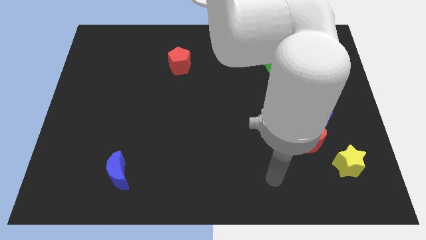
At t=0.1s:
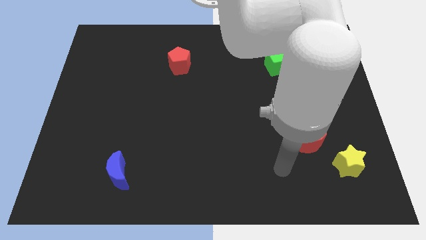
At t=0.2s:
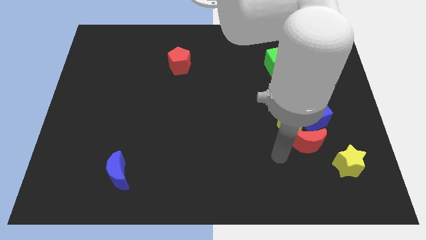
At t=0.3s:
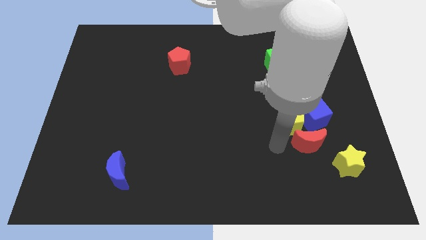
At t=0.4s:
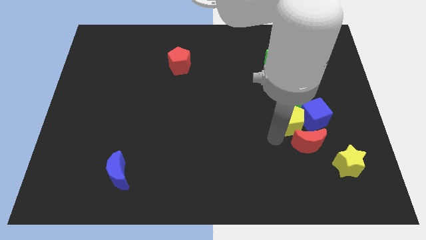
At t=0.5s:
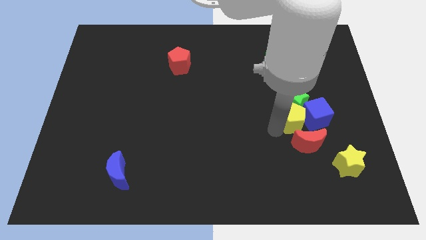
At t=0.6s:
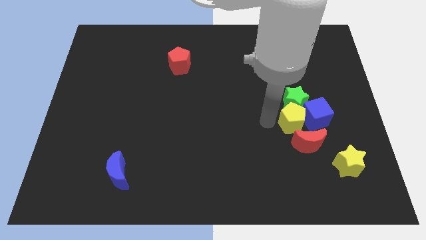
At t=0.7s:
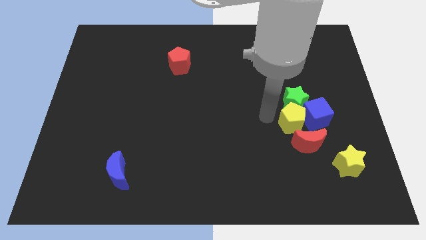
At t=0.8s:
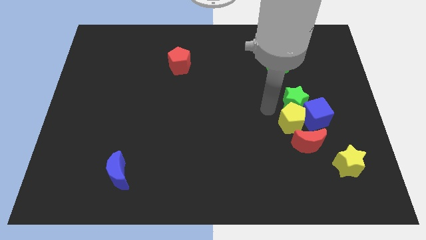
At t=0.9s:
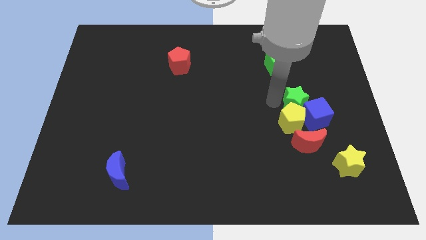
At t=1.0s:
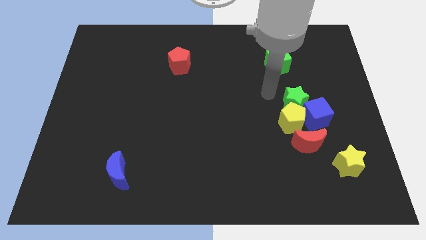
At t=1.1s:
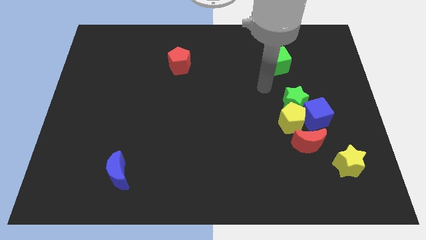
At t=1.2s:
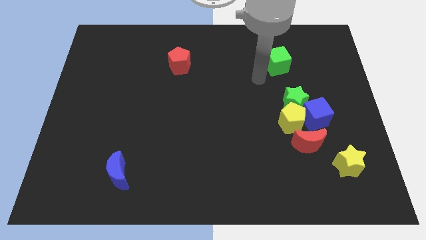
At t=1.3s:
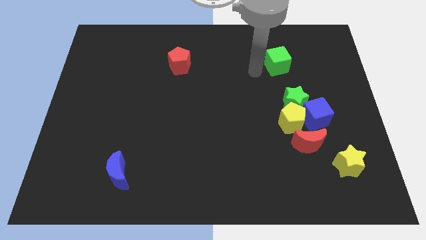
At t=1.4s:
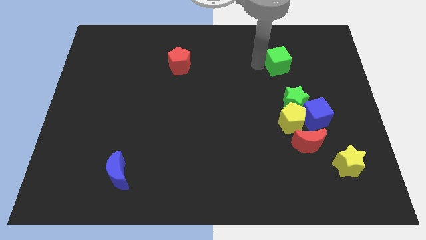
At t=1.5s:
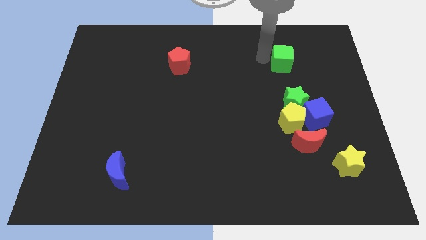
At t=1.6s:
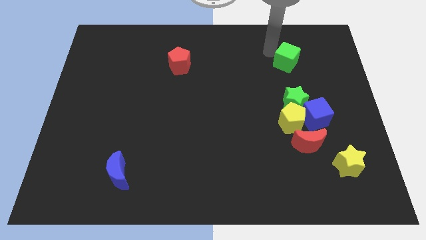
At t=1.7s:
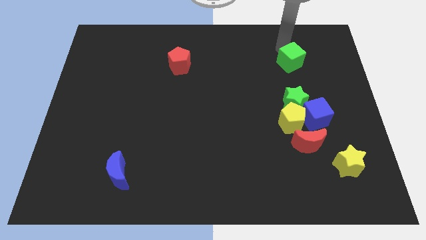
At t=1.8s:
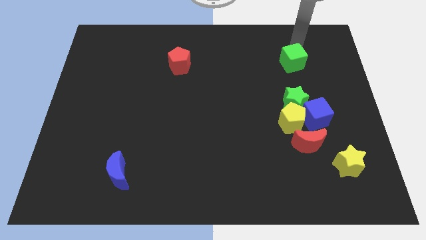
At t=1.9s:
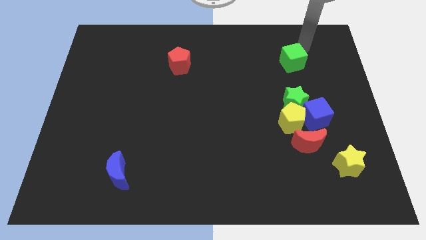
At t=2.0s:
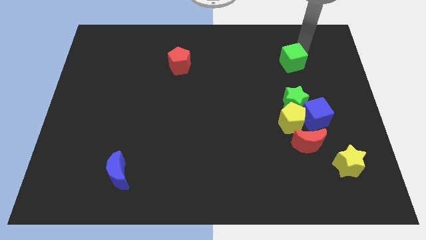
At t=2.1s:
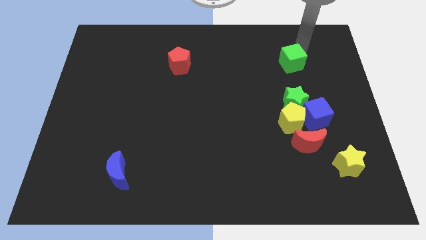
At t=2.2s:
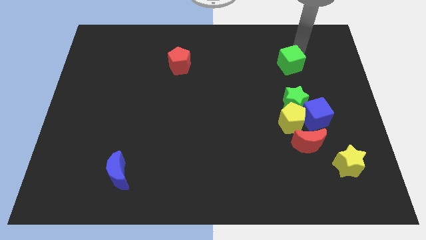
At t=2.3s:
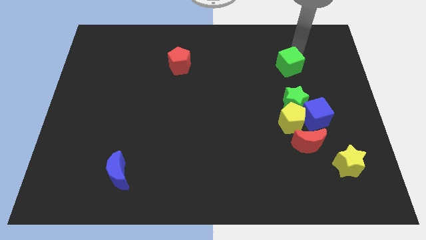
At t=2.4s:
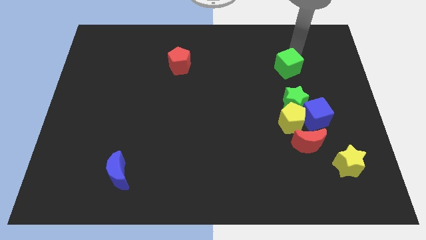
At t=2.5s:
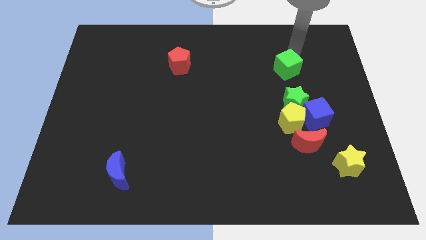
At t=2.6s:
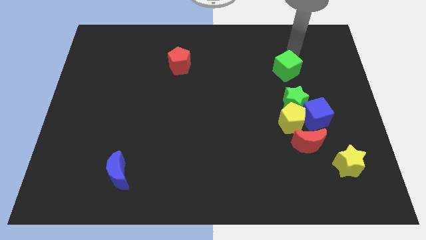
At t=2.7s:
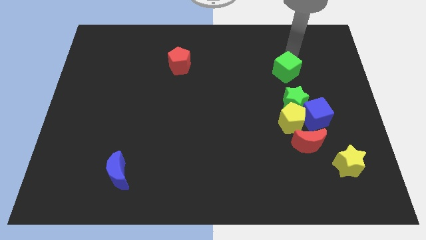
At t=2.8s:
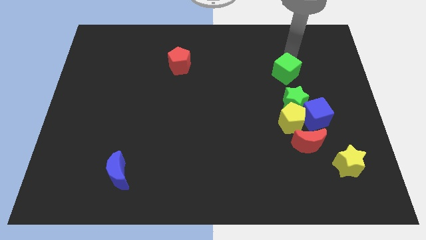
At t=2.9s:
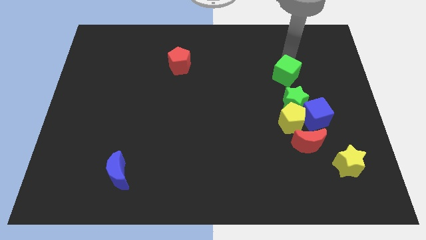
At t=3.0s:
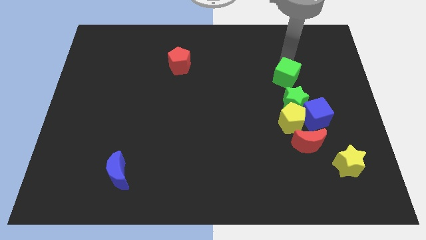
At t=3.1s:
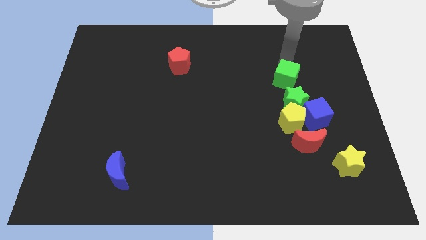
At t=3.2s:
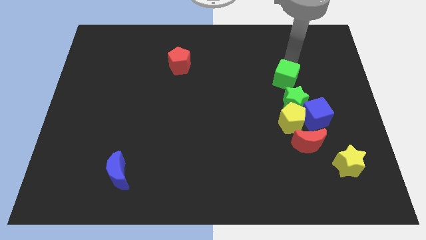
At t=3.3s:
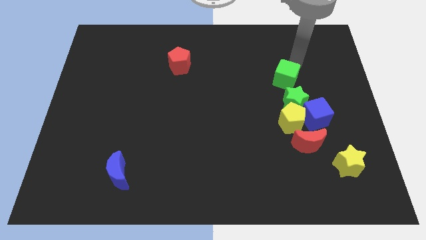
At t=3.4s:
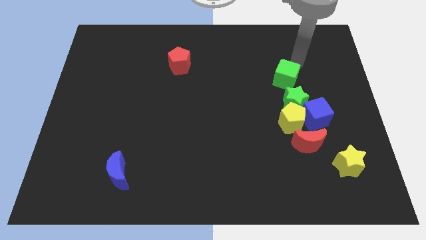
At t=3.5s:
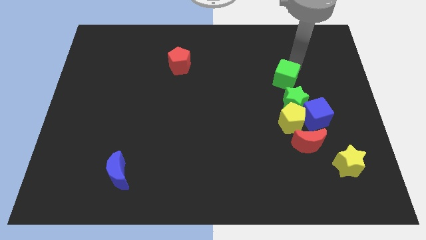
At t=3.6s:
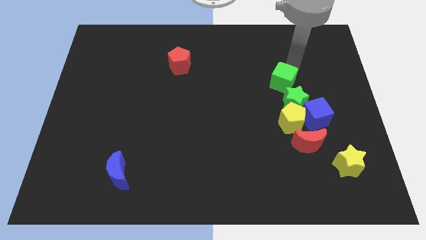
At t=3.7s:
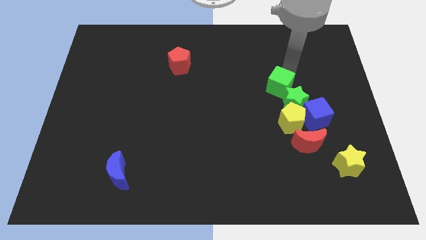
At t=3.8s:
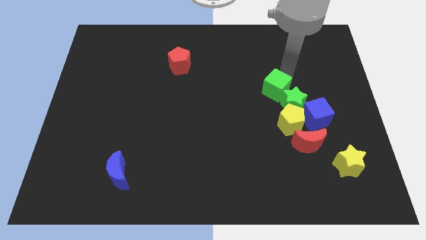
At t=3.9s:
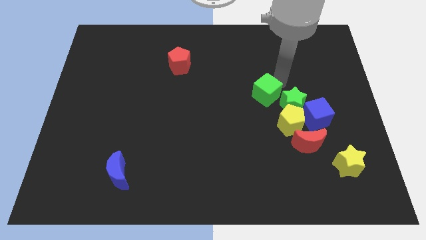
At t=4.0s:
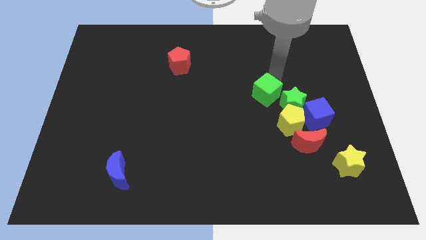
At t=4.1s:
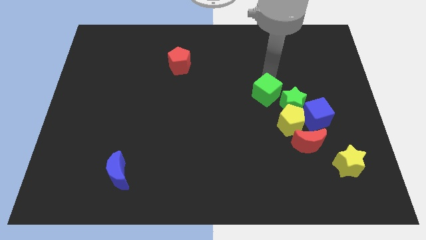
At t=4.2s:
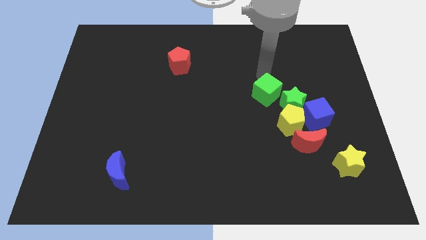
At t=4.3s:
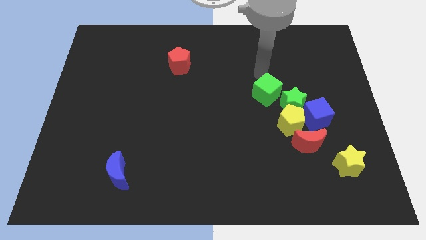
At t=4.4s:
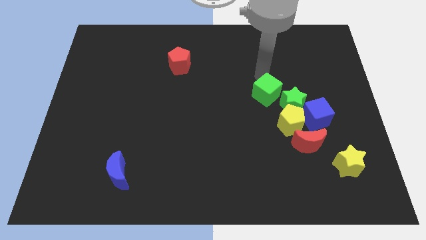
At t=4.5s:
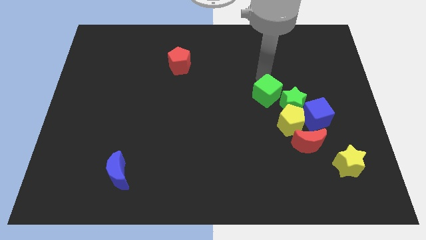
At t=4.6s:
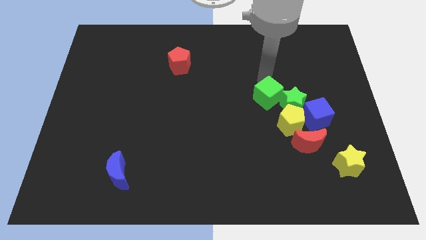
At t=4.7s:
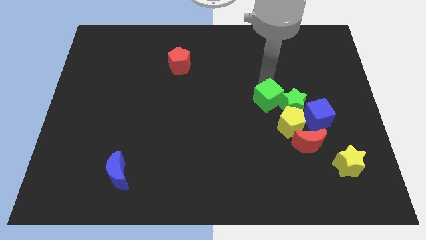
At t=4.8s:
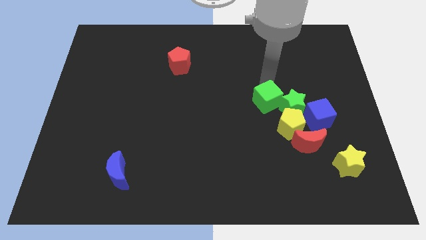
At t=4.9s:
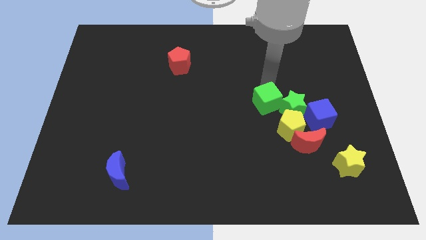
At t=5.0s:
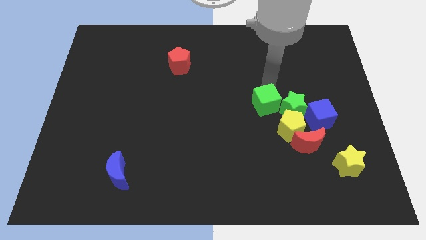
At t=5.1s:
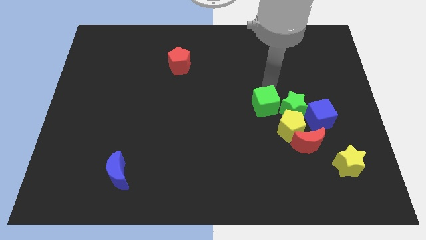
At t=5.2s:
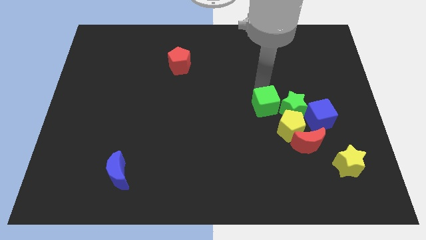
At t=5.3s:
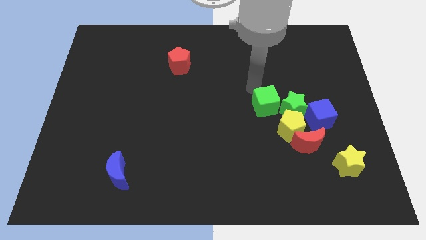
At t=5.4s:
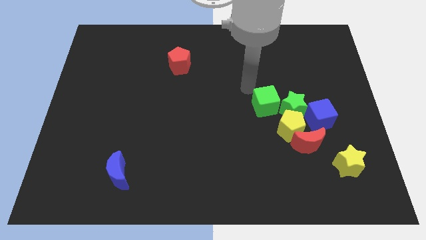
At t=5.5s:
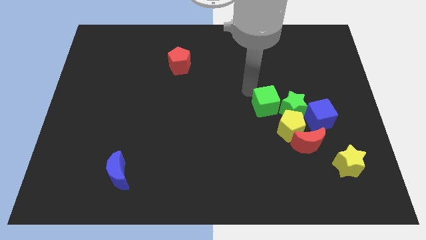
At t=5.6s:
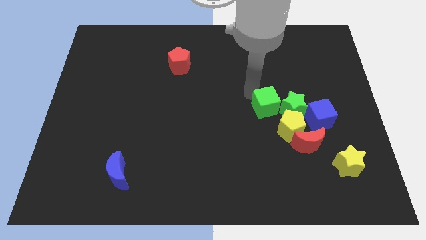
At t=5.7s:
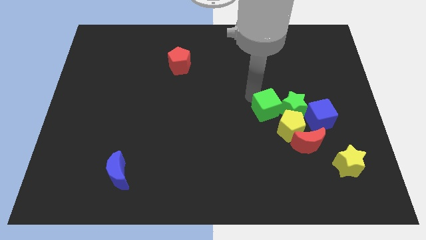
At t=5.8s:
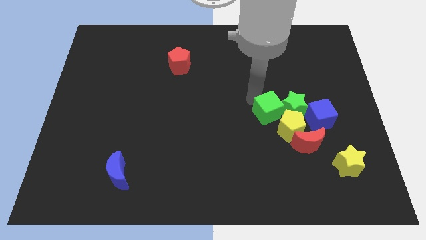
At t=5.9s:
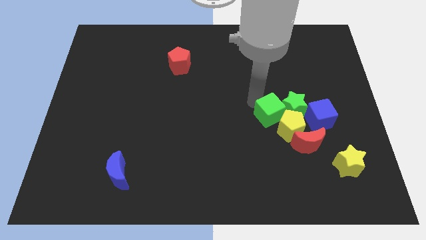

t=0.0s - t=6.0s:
put the green cube close to the yellow pentagon
